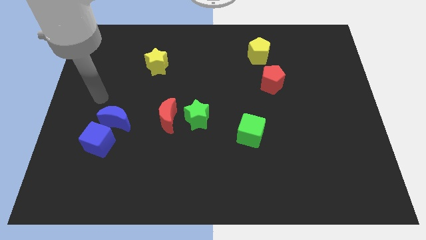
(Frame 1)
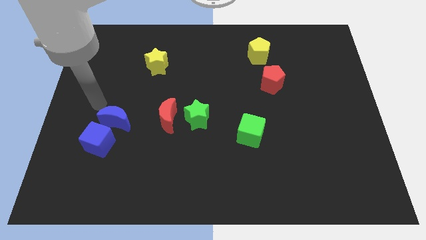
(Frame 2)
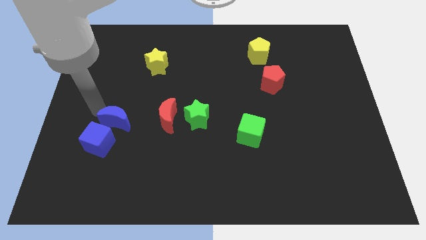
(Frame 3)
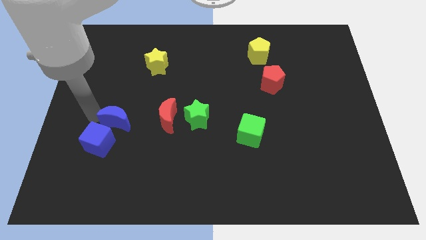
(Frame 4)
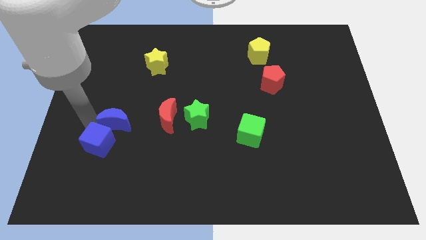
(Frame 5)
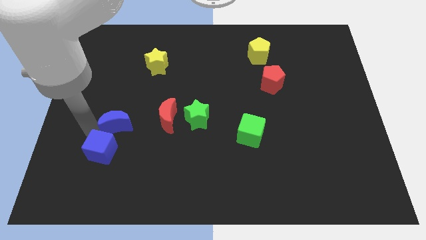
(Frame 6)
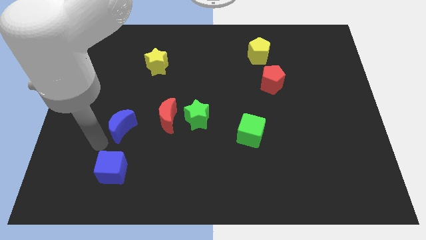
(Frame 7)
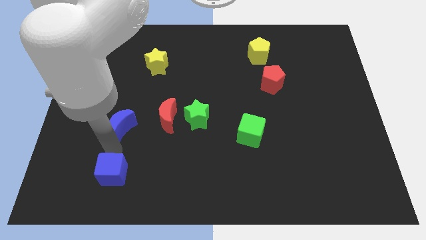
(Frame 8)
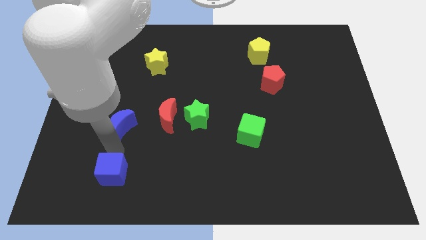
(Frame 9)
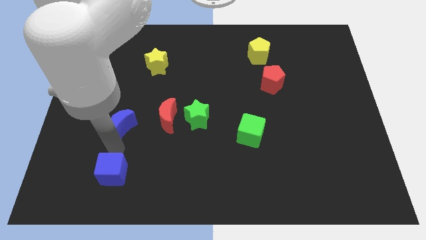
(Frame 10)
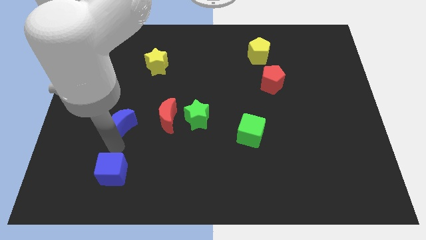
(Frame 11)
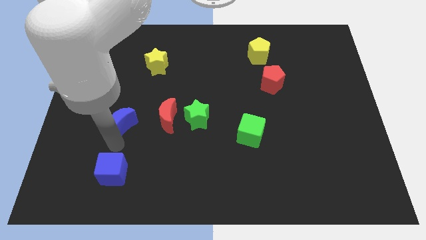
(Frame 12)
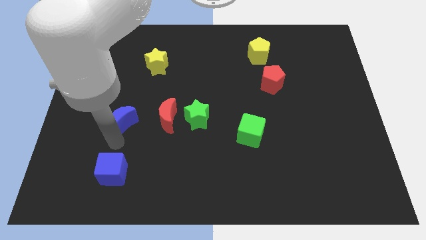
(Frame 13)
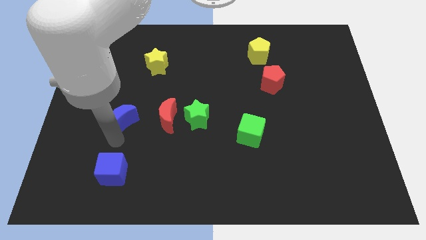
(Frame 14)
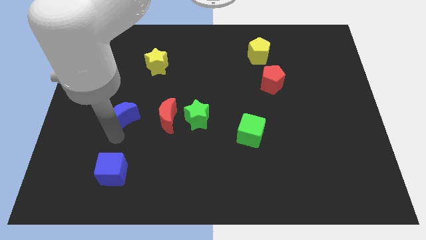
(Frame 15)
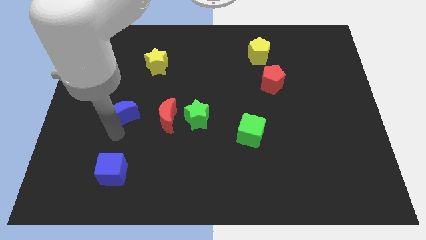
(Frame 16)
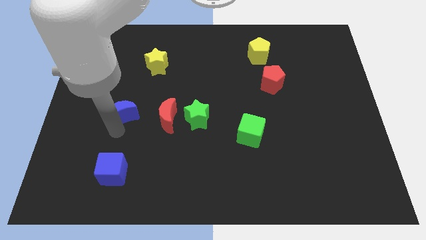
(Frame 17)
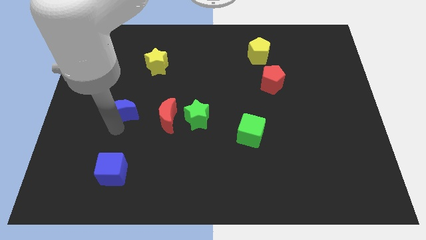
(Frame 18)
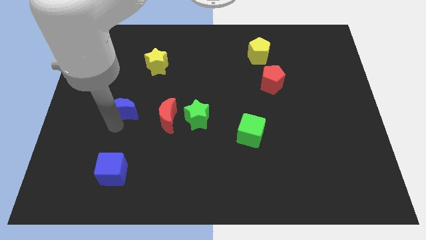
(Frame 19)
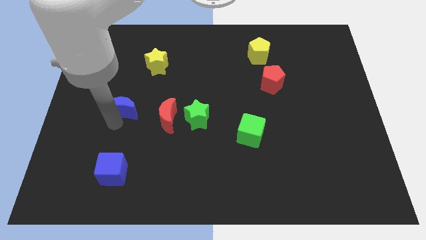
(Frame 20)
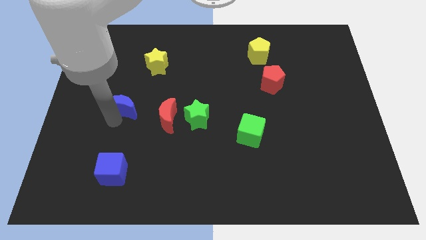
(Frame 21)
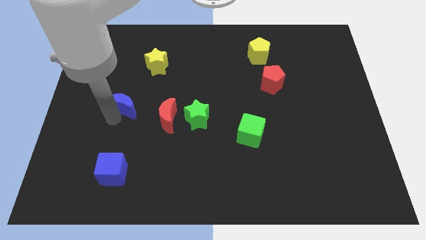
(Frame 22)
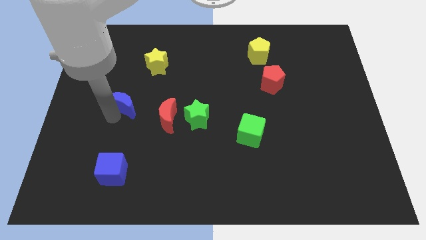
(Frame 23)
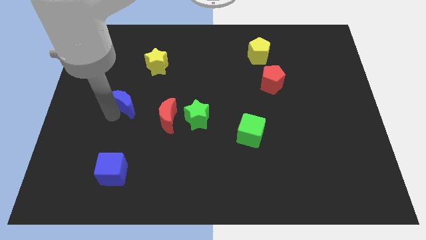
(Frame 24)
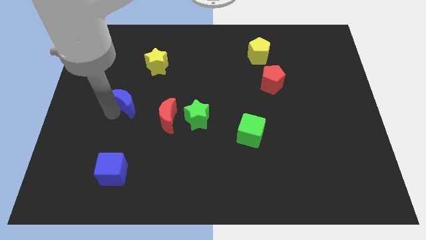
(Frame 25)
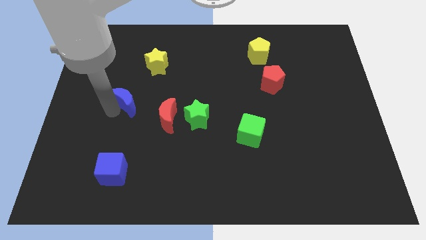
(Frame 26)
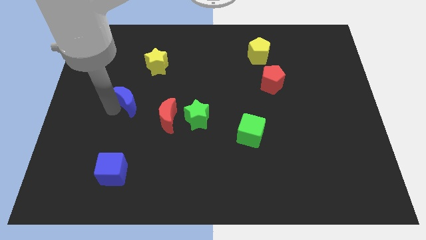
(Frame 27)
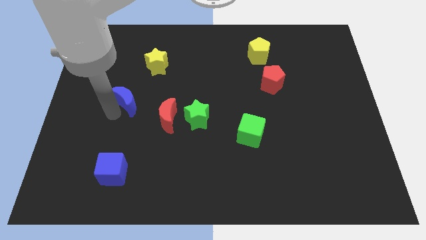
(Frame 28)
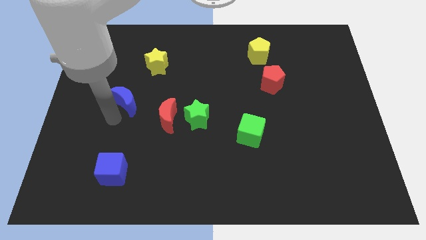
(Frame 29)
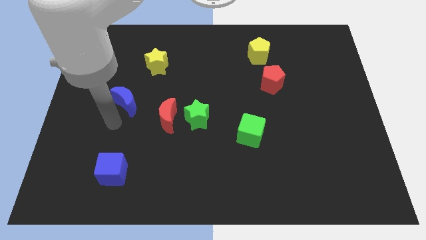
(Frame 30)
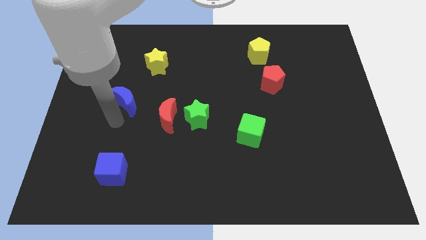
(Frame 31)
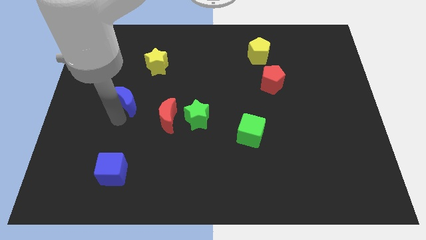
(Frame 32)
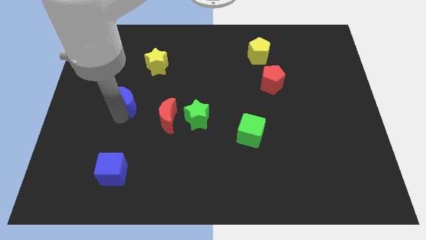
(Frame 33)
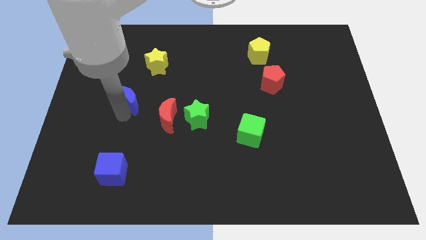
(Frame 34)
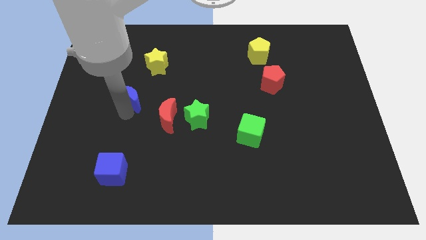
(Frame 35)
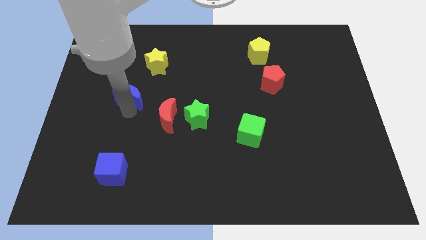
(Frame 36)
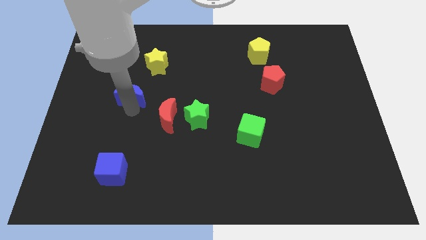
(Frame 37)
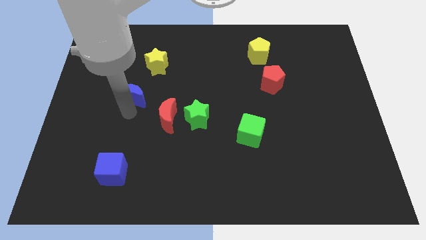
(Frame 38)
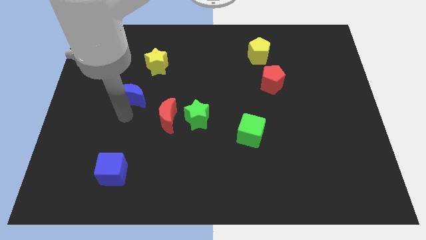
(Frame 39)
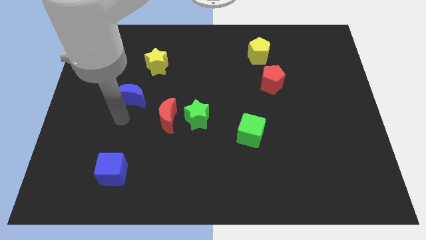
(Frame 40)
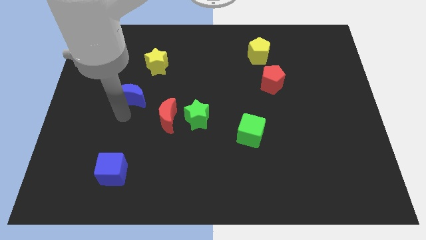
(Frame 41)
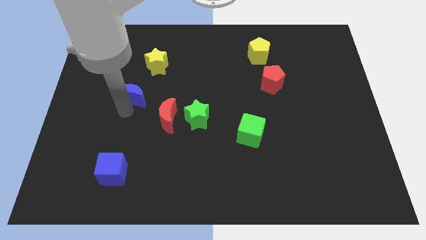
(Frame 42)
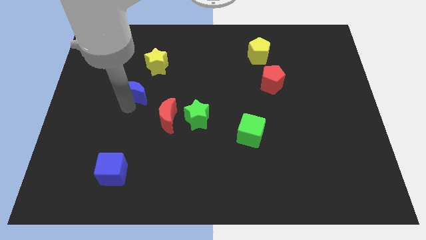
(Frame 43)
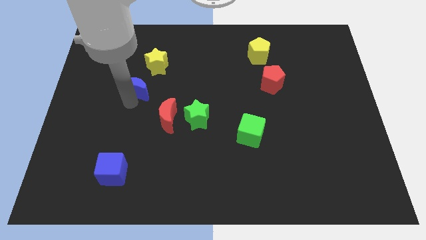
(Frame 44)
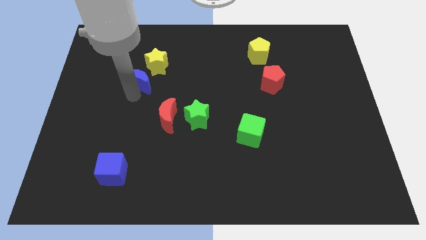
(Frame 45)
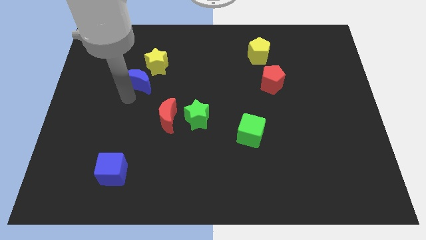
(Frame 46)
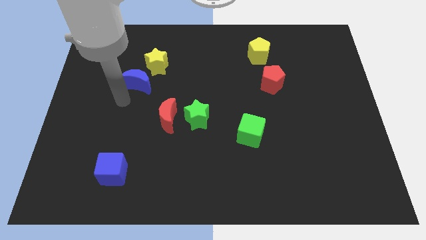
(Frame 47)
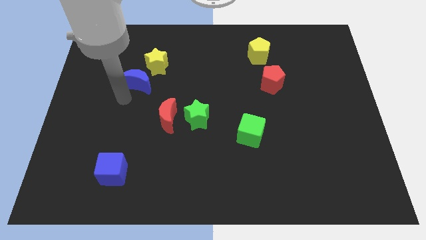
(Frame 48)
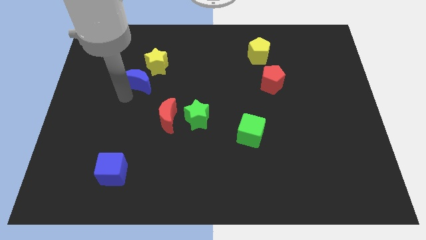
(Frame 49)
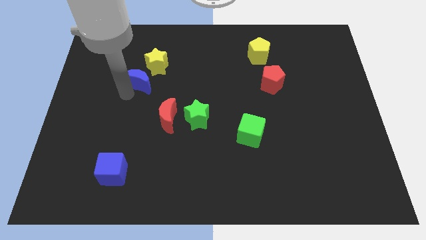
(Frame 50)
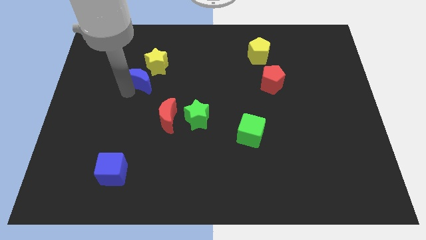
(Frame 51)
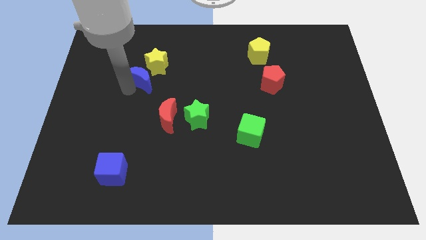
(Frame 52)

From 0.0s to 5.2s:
push the blue moon to the yellow star

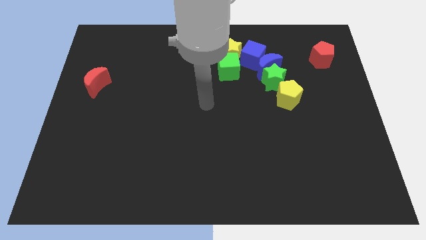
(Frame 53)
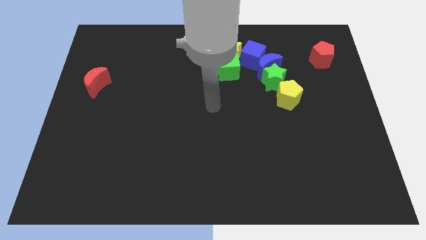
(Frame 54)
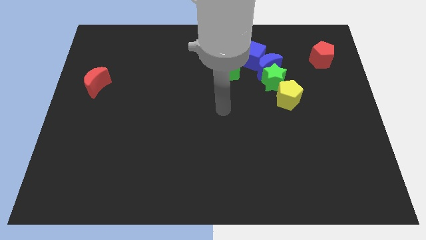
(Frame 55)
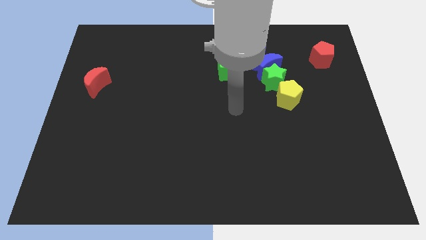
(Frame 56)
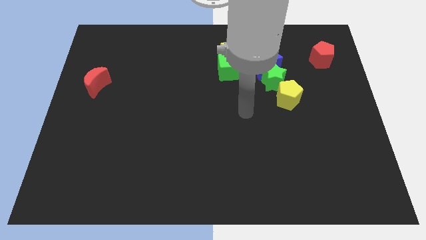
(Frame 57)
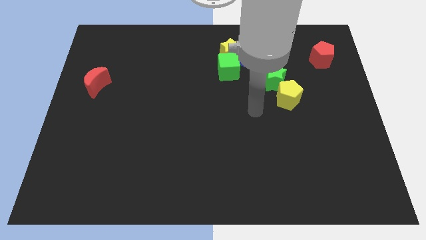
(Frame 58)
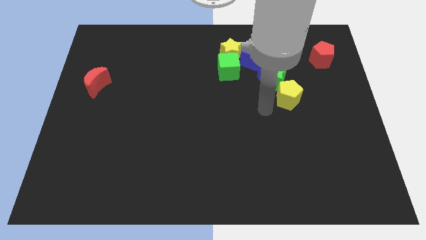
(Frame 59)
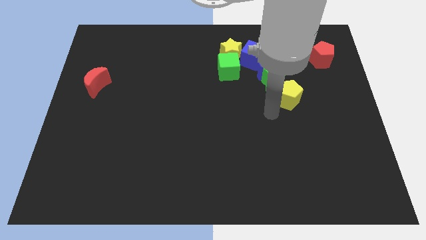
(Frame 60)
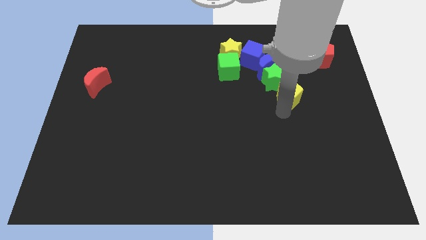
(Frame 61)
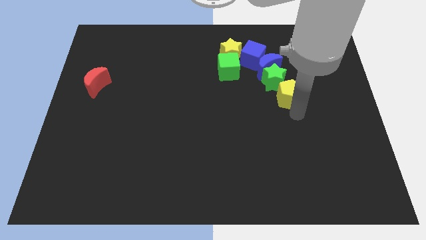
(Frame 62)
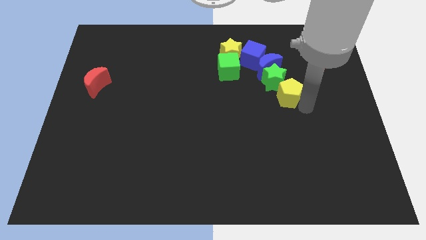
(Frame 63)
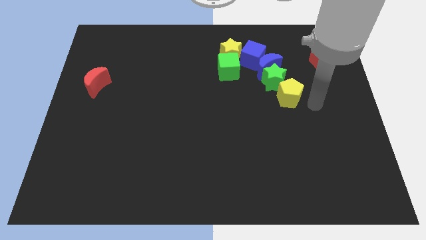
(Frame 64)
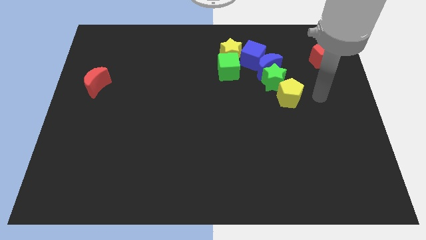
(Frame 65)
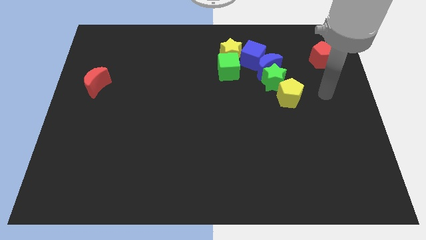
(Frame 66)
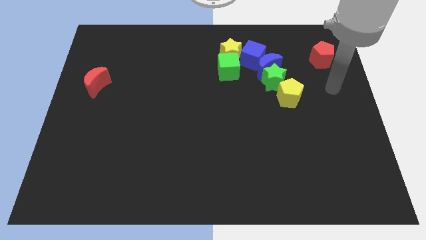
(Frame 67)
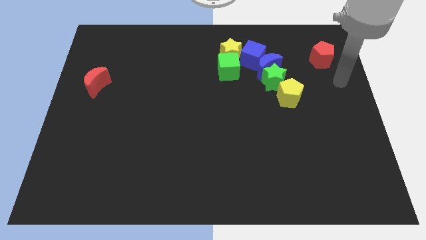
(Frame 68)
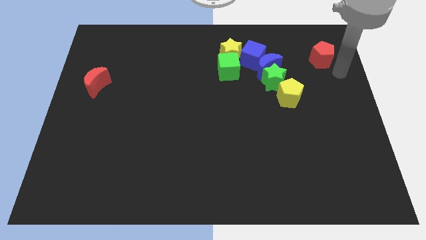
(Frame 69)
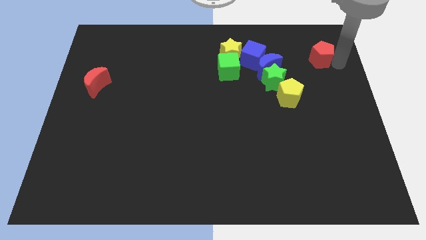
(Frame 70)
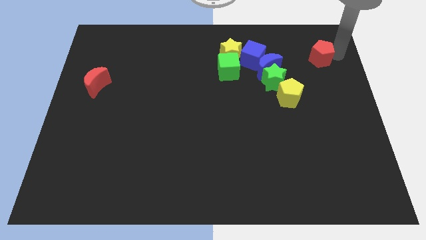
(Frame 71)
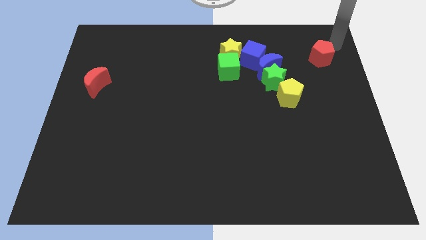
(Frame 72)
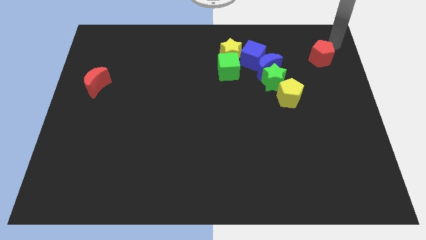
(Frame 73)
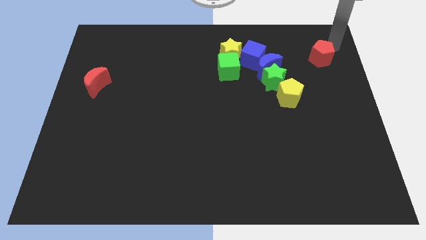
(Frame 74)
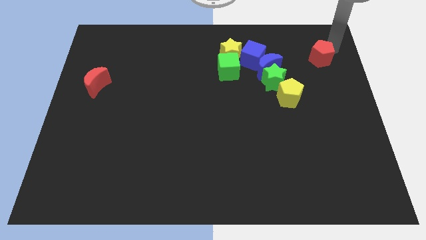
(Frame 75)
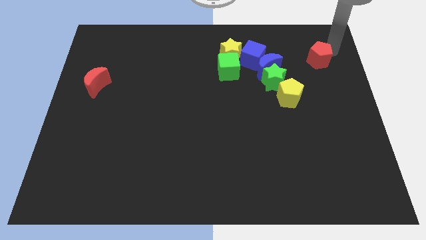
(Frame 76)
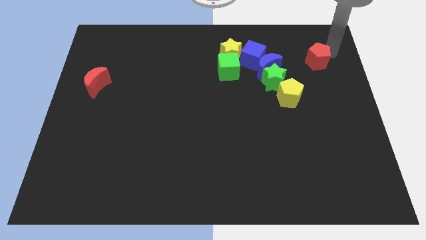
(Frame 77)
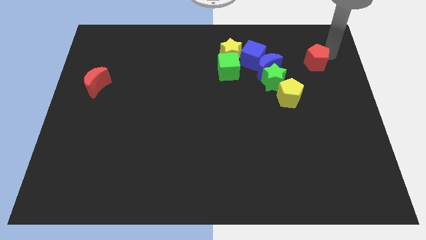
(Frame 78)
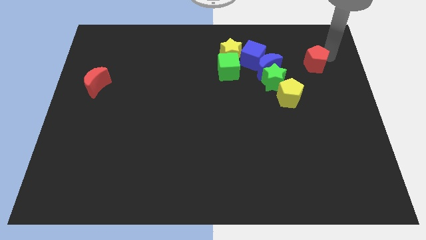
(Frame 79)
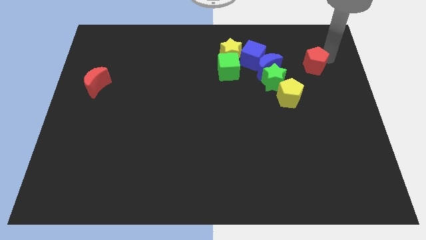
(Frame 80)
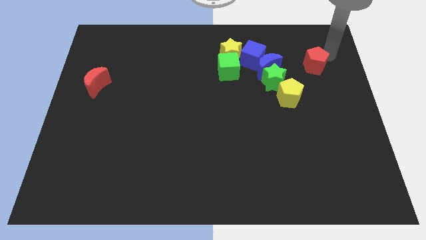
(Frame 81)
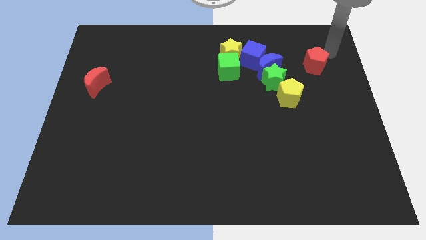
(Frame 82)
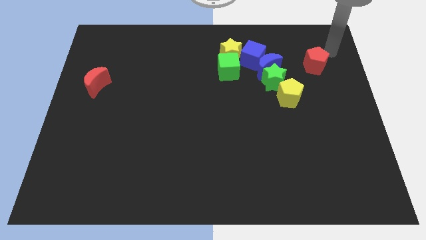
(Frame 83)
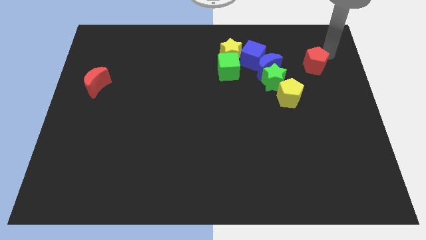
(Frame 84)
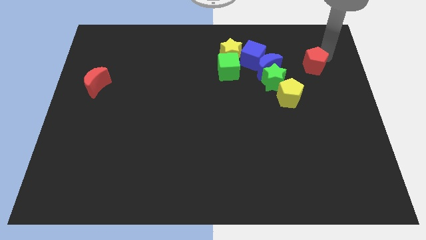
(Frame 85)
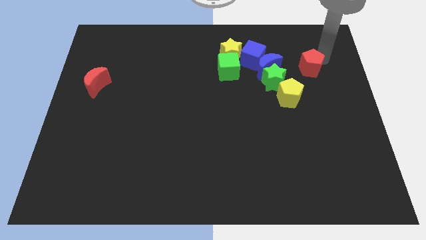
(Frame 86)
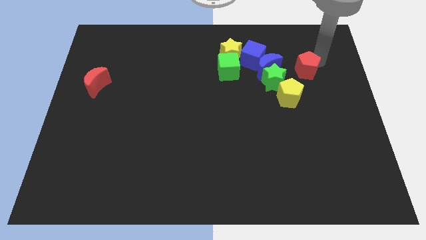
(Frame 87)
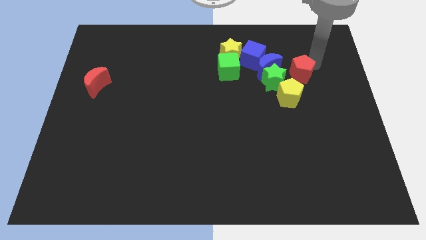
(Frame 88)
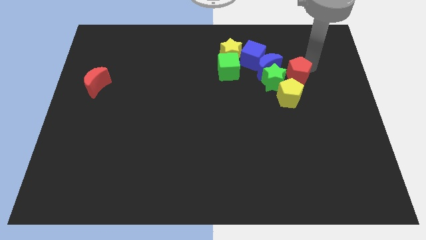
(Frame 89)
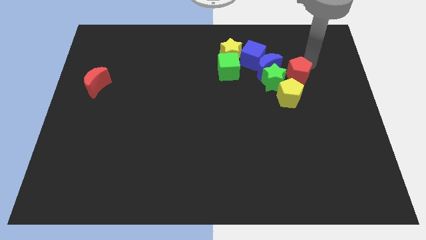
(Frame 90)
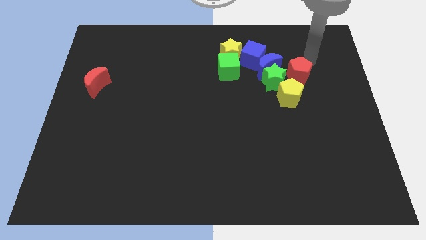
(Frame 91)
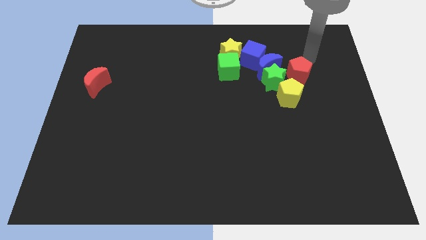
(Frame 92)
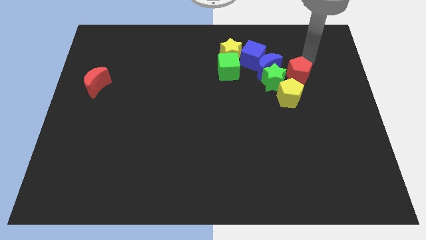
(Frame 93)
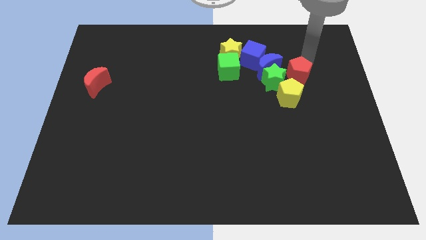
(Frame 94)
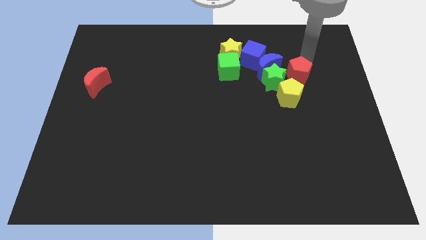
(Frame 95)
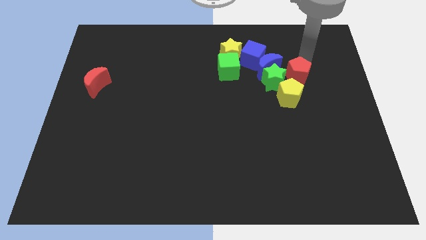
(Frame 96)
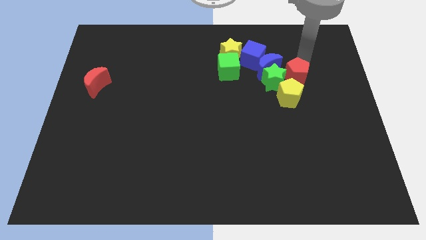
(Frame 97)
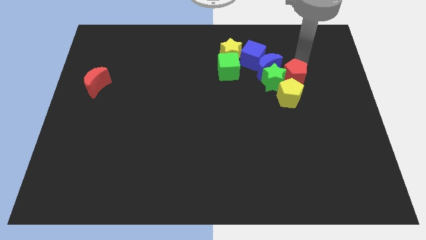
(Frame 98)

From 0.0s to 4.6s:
put the red pentagon to the green star
